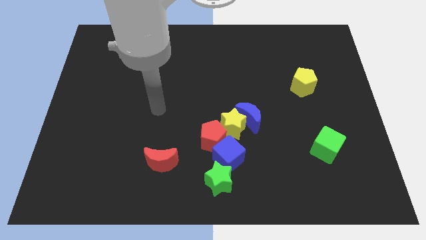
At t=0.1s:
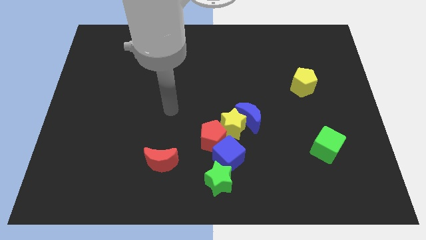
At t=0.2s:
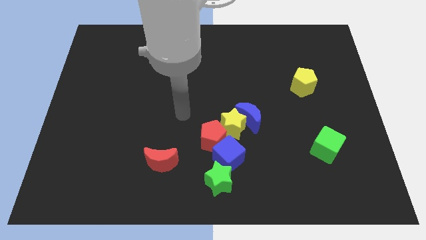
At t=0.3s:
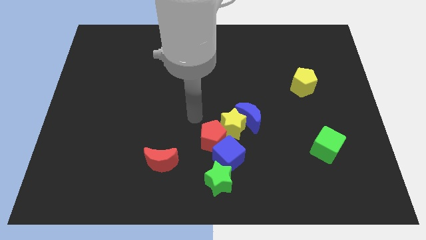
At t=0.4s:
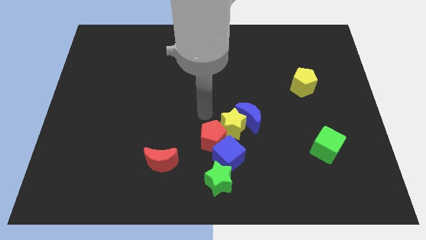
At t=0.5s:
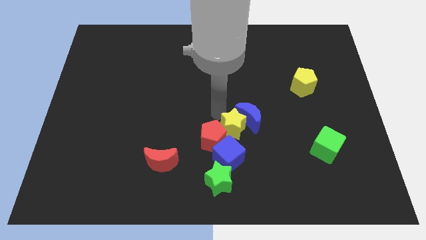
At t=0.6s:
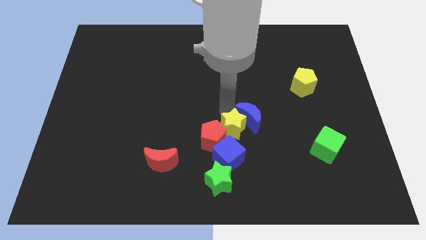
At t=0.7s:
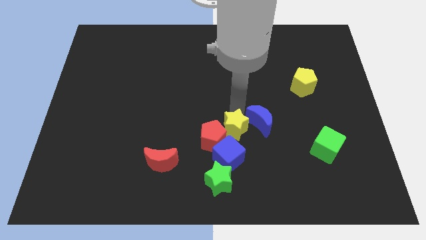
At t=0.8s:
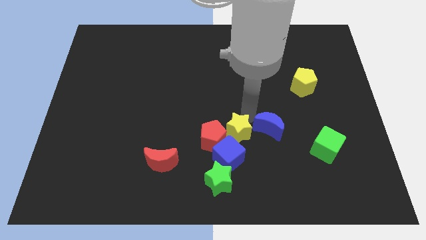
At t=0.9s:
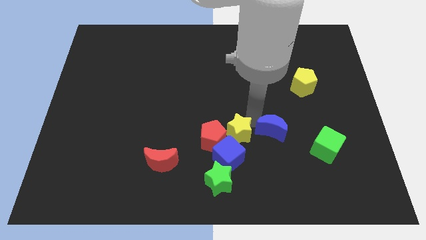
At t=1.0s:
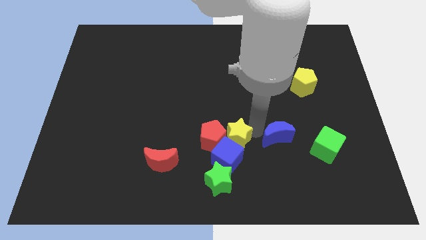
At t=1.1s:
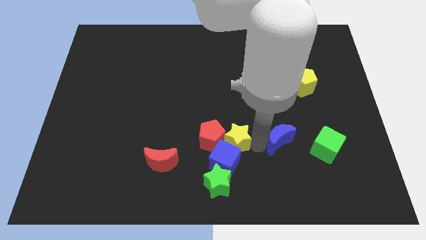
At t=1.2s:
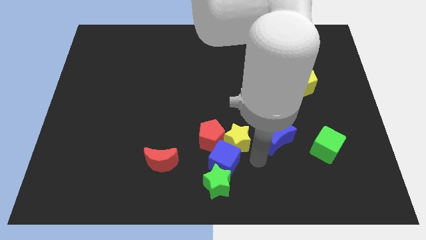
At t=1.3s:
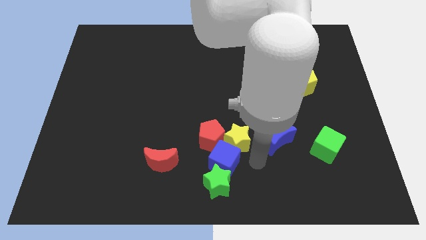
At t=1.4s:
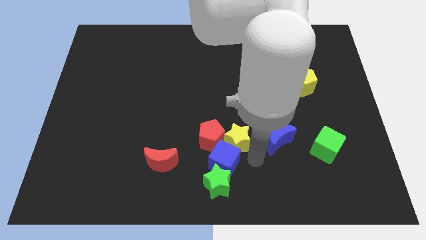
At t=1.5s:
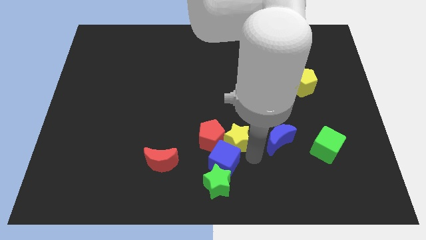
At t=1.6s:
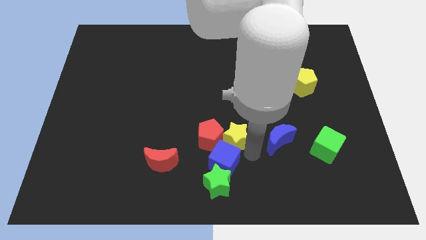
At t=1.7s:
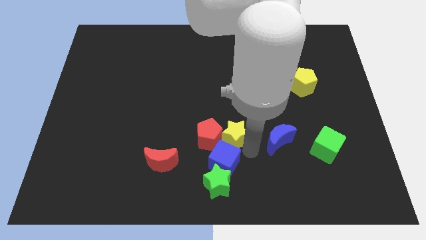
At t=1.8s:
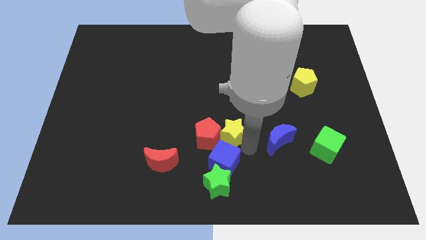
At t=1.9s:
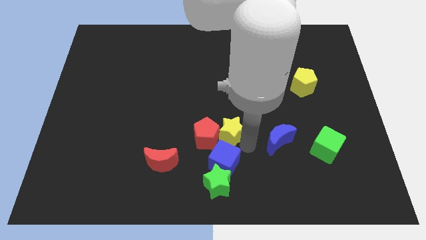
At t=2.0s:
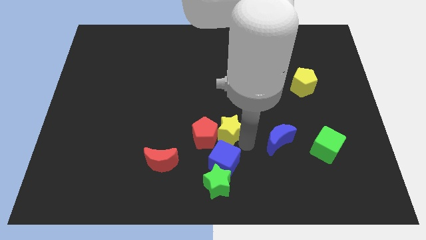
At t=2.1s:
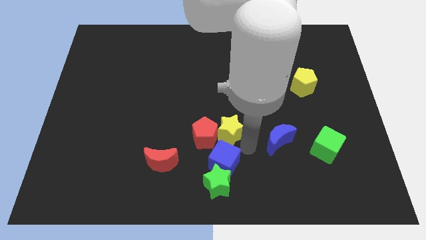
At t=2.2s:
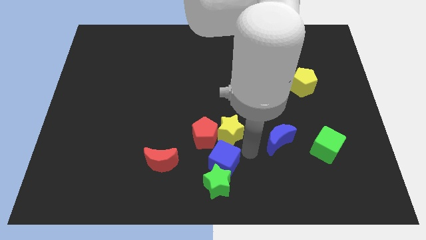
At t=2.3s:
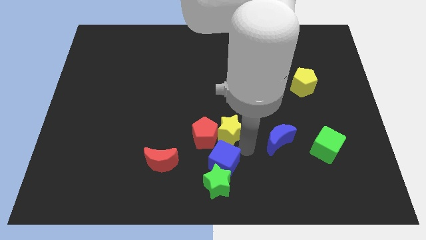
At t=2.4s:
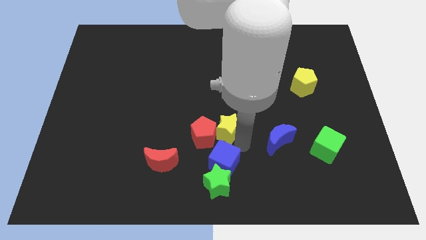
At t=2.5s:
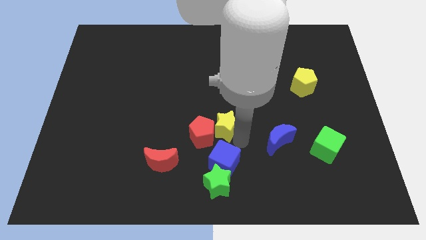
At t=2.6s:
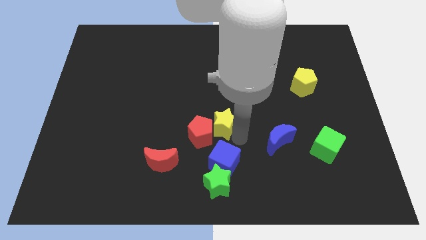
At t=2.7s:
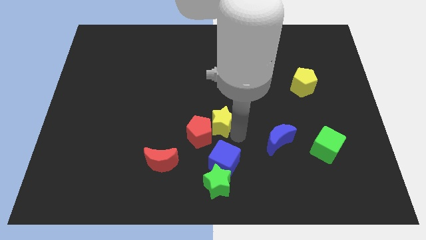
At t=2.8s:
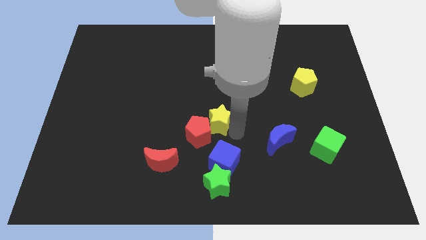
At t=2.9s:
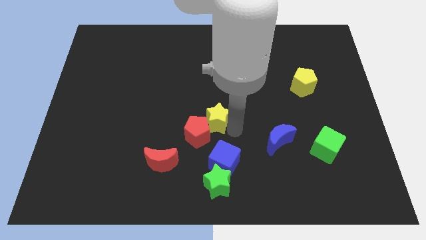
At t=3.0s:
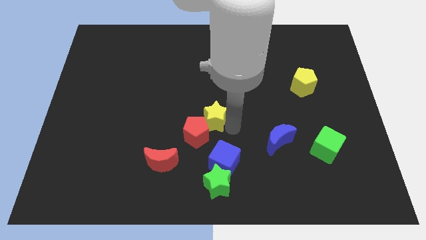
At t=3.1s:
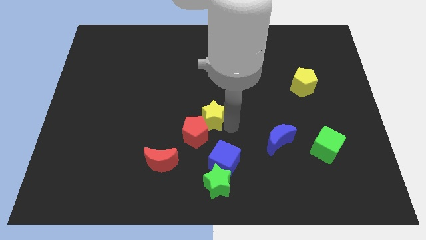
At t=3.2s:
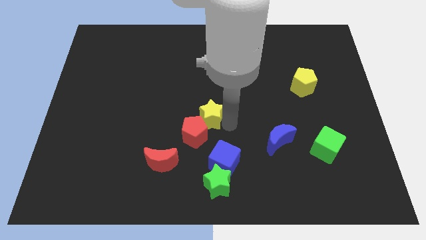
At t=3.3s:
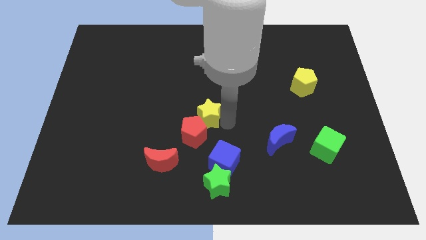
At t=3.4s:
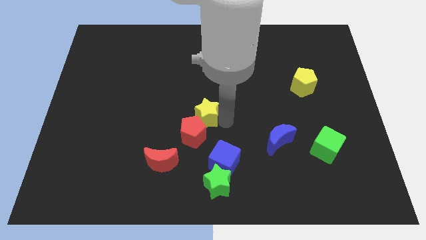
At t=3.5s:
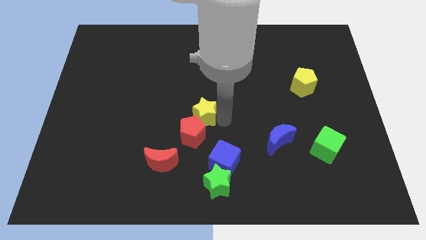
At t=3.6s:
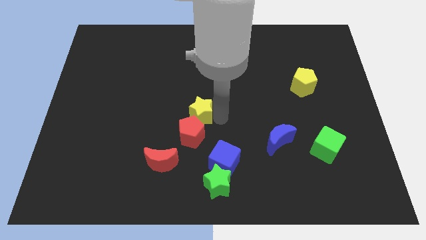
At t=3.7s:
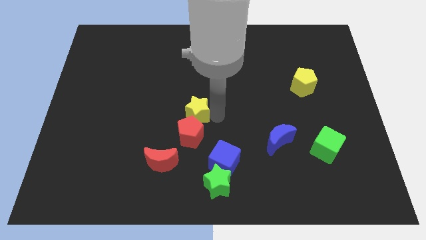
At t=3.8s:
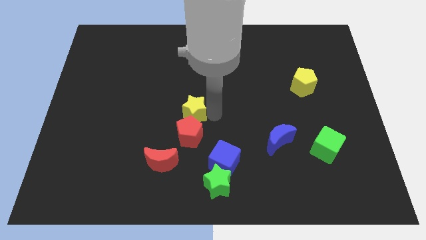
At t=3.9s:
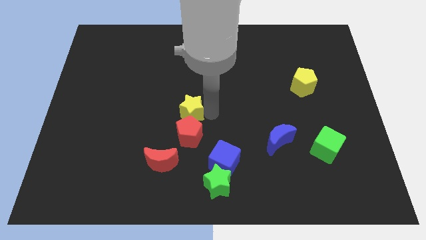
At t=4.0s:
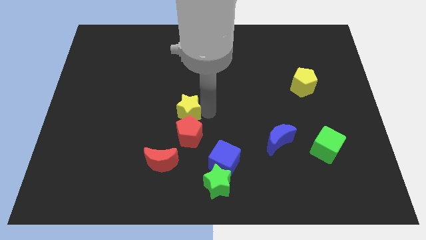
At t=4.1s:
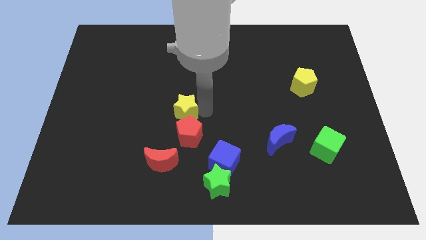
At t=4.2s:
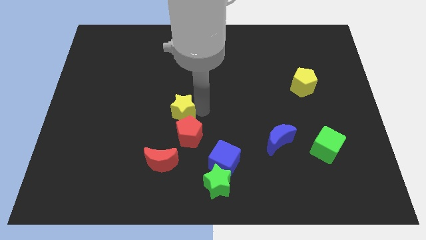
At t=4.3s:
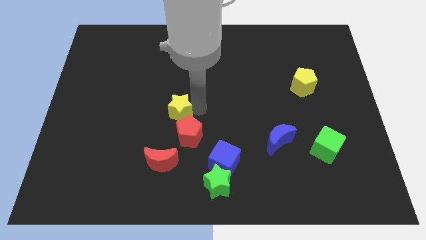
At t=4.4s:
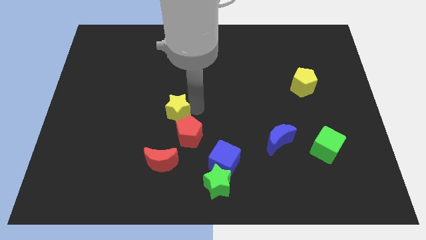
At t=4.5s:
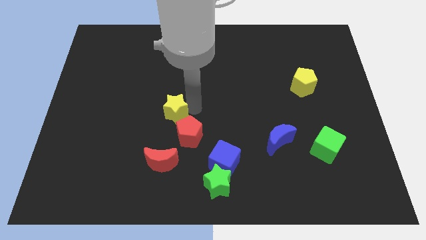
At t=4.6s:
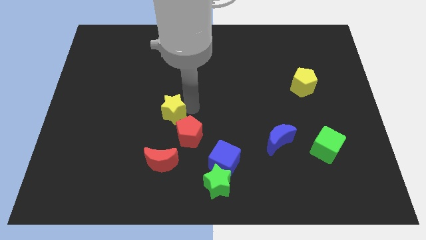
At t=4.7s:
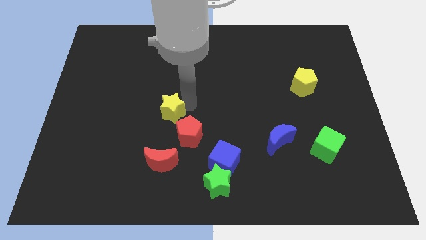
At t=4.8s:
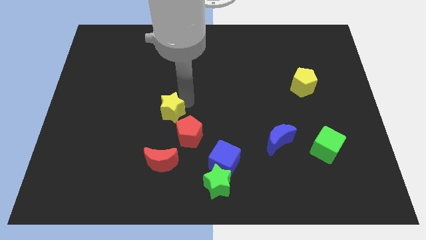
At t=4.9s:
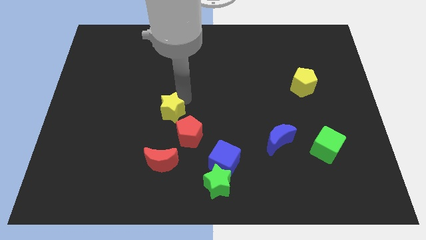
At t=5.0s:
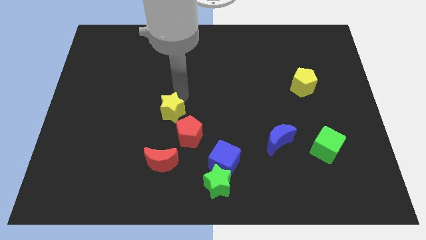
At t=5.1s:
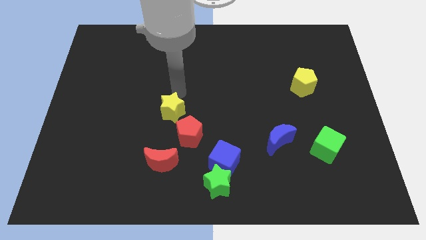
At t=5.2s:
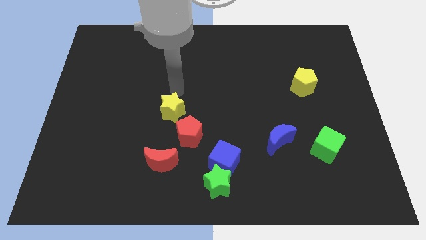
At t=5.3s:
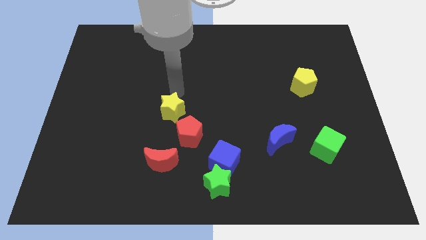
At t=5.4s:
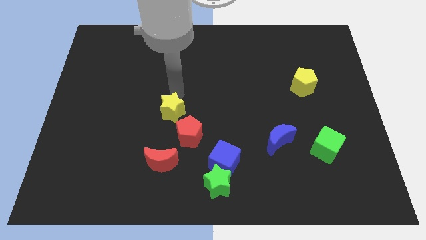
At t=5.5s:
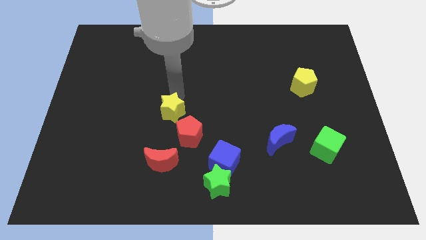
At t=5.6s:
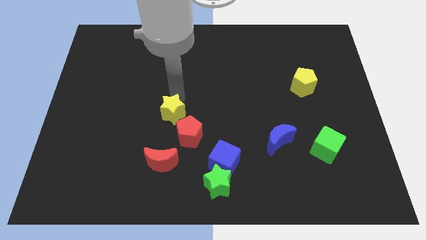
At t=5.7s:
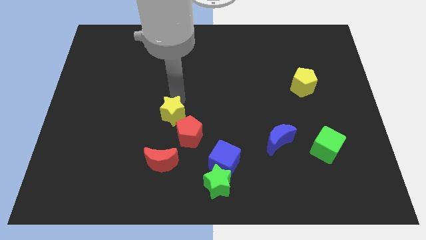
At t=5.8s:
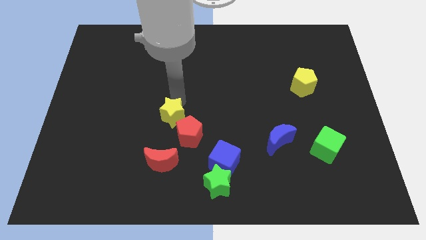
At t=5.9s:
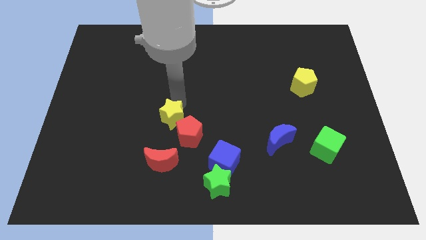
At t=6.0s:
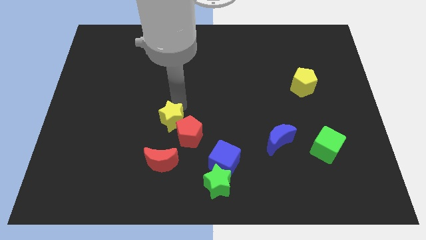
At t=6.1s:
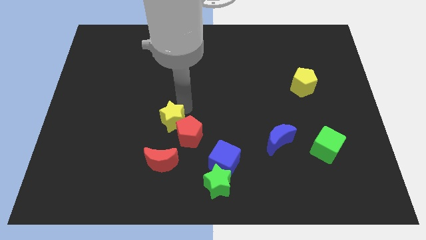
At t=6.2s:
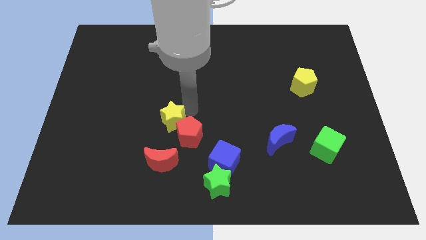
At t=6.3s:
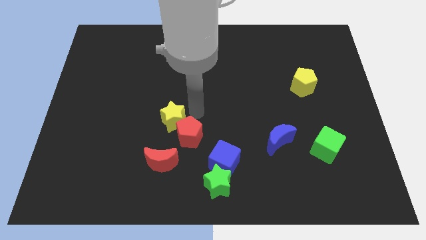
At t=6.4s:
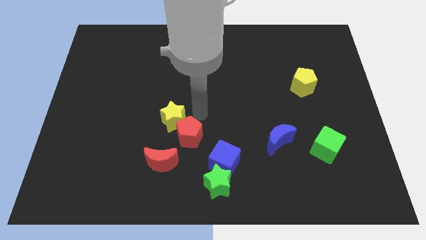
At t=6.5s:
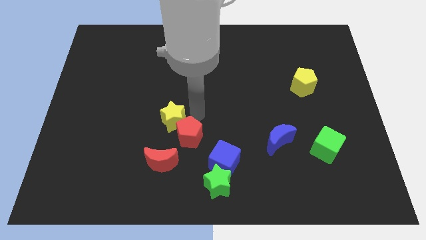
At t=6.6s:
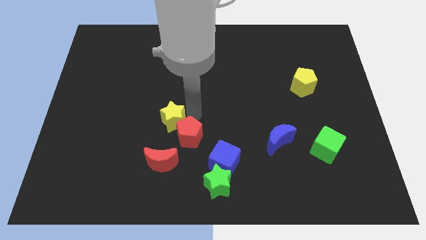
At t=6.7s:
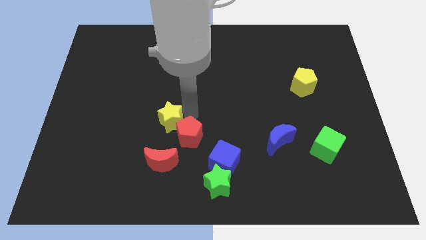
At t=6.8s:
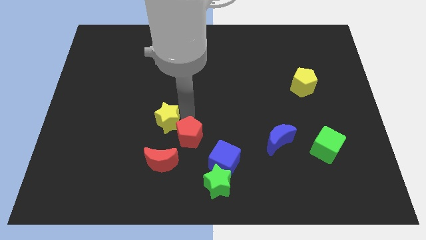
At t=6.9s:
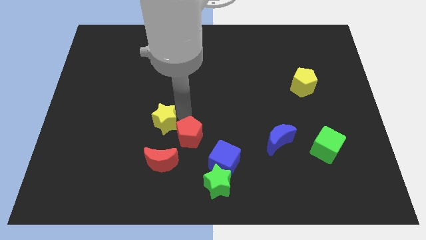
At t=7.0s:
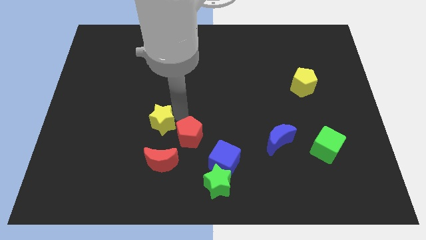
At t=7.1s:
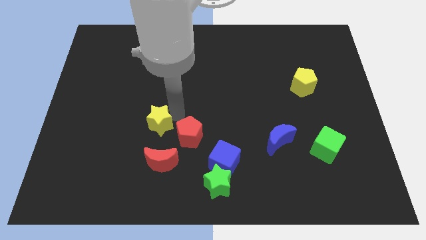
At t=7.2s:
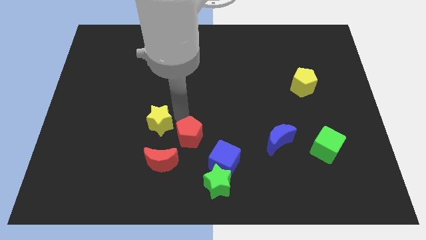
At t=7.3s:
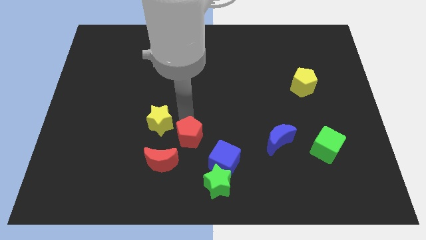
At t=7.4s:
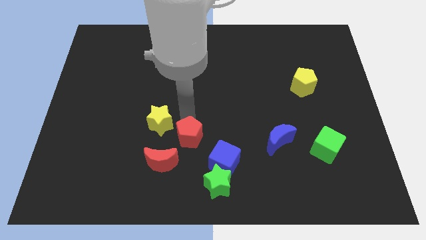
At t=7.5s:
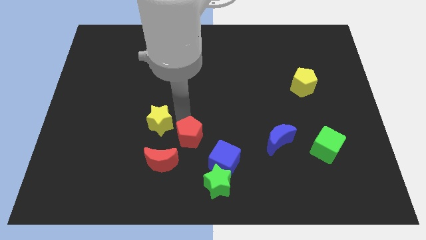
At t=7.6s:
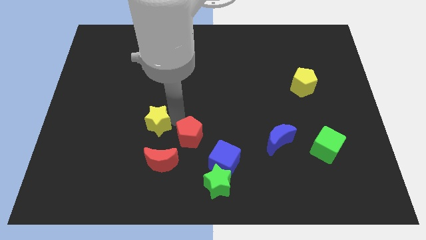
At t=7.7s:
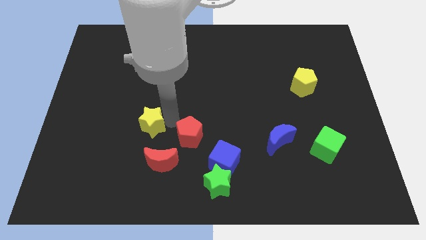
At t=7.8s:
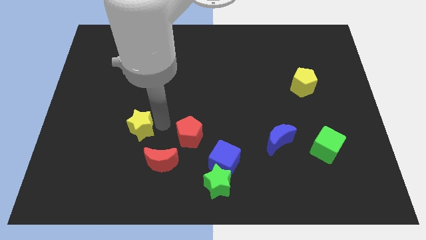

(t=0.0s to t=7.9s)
move the yellow star left

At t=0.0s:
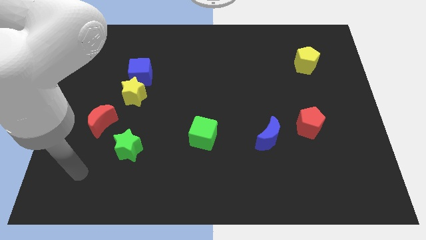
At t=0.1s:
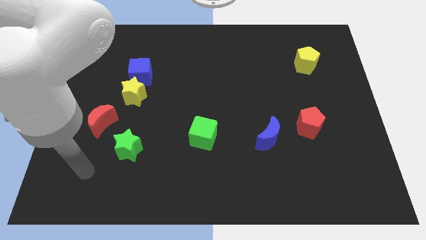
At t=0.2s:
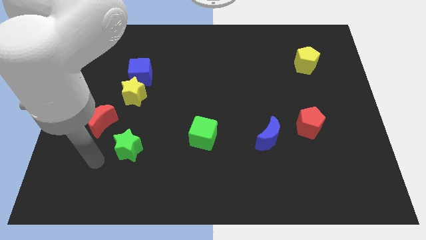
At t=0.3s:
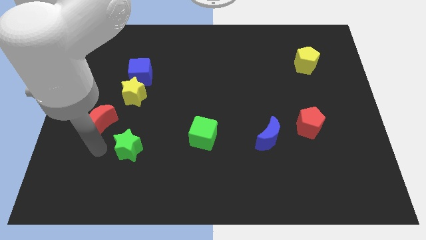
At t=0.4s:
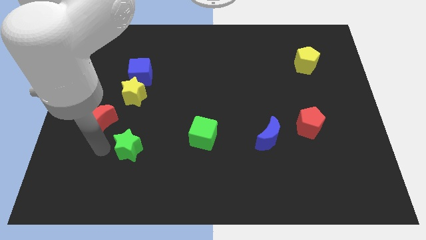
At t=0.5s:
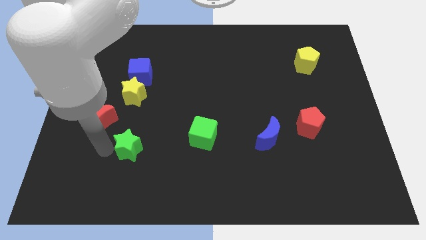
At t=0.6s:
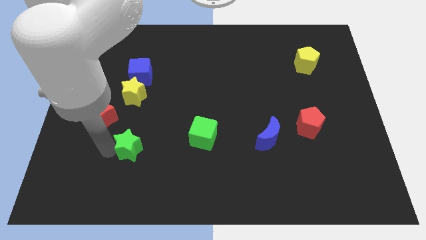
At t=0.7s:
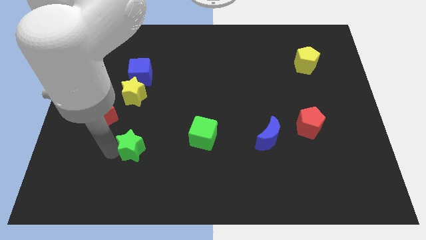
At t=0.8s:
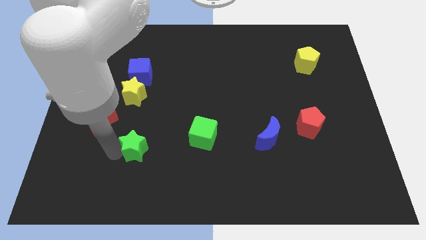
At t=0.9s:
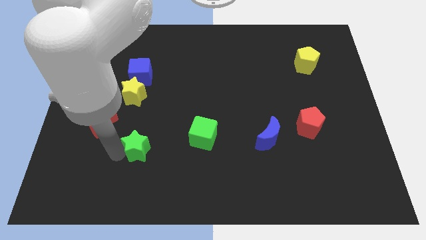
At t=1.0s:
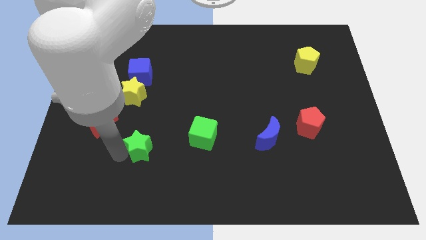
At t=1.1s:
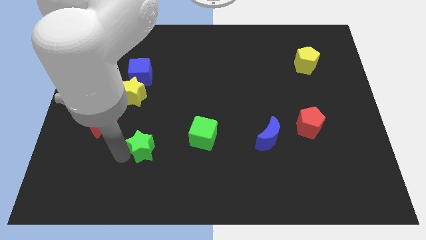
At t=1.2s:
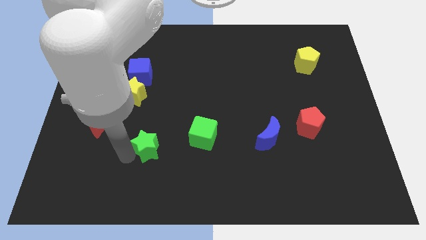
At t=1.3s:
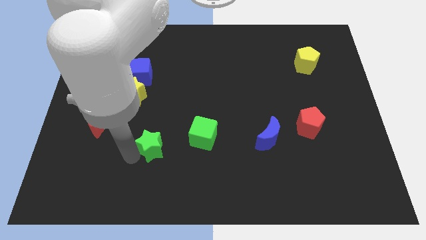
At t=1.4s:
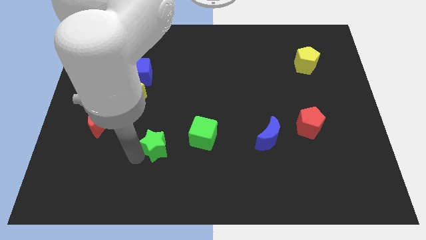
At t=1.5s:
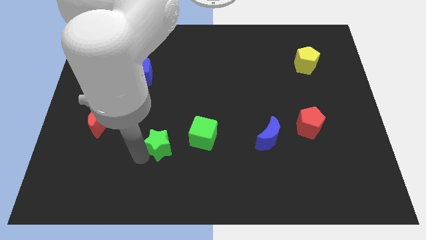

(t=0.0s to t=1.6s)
push the green star a little bit right
